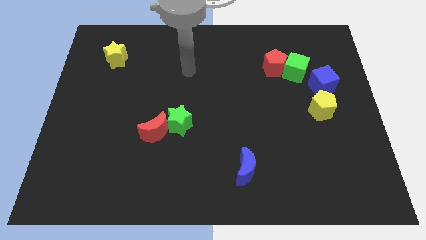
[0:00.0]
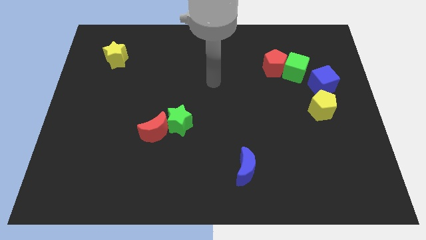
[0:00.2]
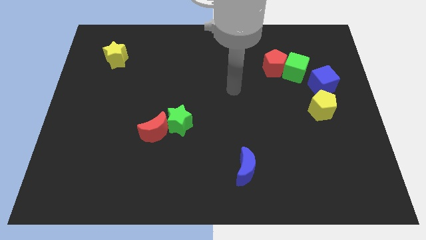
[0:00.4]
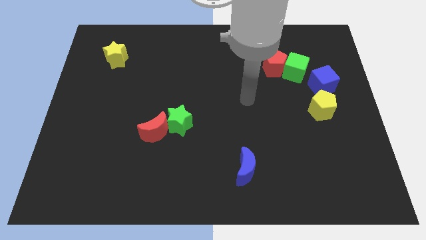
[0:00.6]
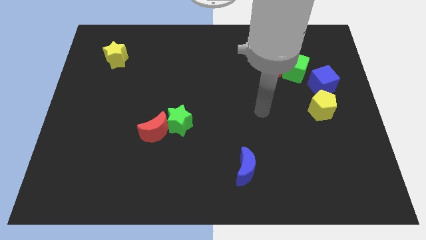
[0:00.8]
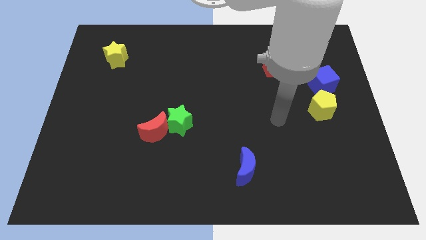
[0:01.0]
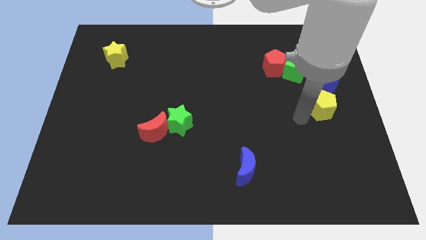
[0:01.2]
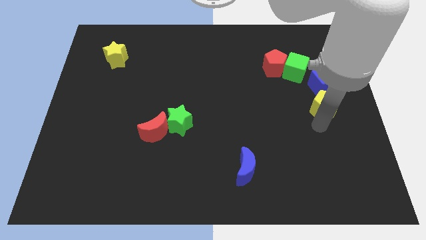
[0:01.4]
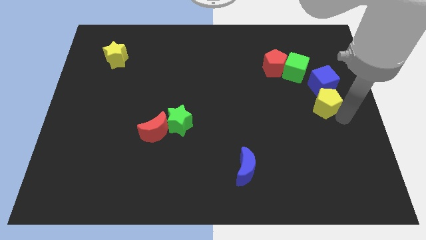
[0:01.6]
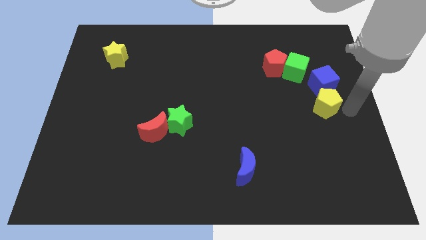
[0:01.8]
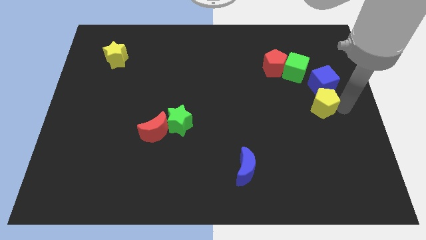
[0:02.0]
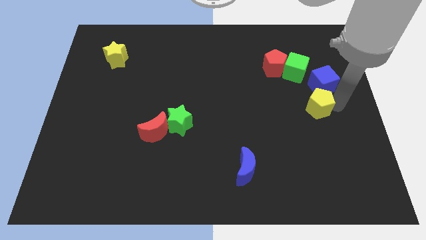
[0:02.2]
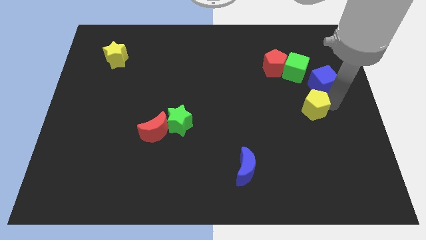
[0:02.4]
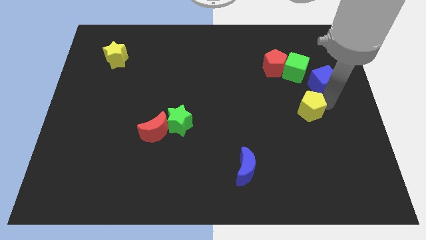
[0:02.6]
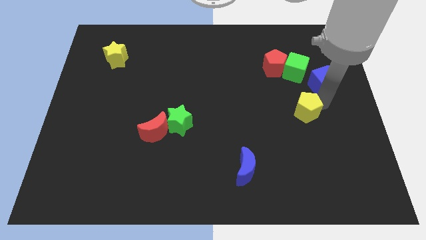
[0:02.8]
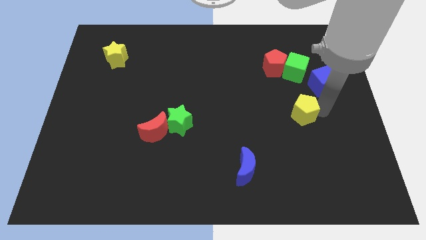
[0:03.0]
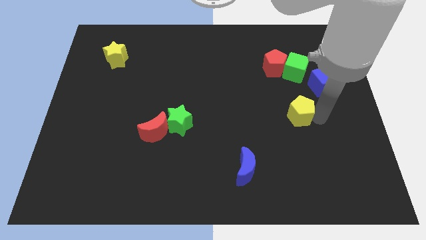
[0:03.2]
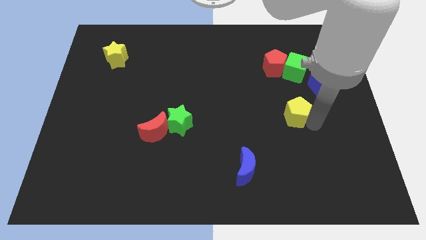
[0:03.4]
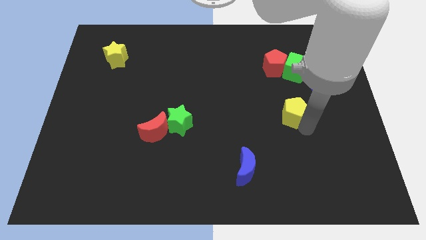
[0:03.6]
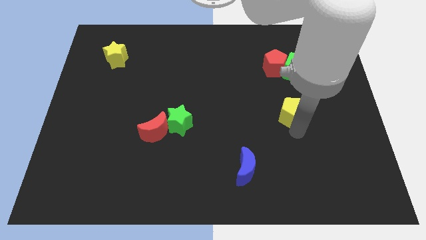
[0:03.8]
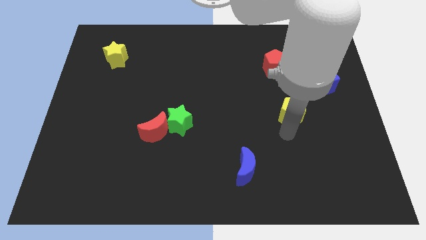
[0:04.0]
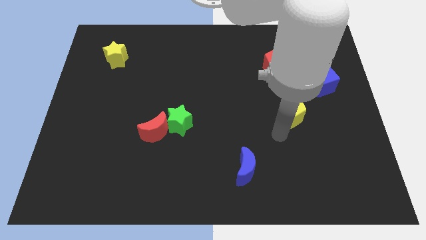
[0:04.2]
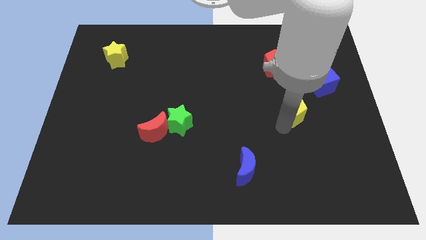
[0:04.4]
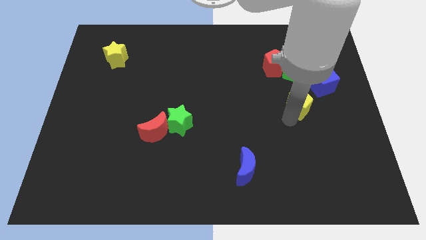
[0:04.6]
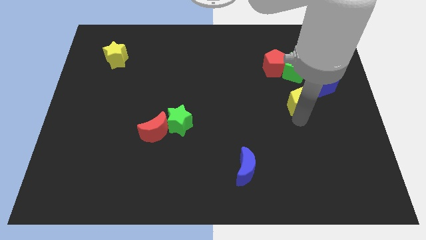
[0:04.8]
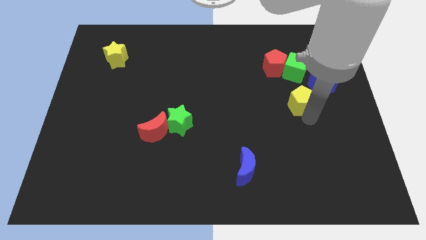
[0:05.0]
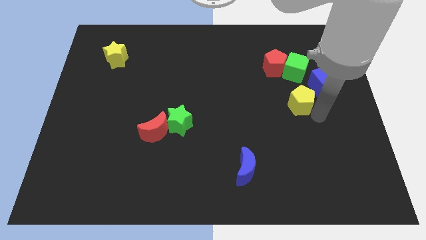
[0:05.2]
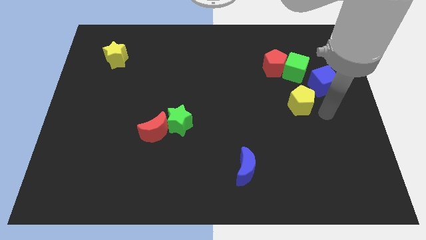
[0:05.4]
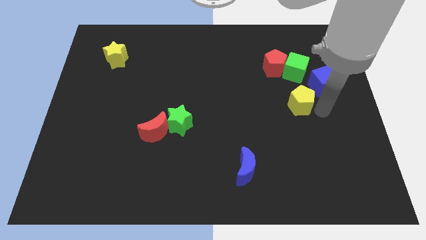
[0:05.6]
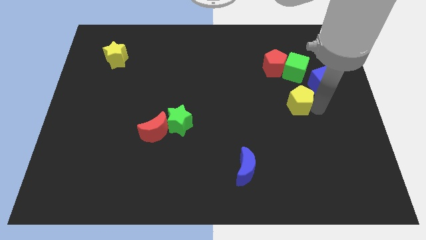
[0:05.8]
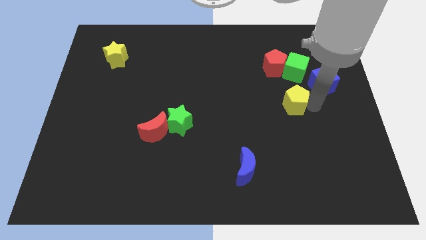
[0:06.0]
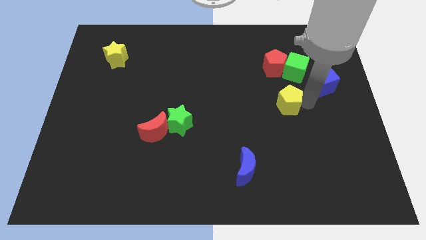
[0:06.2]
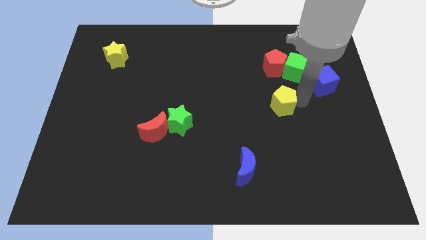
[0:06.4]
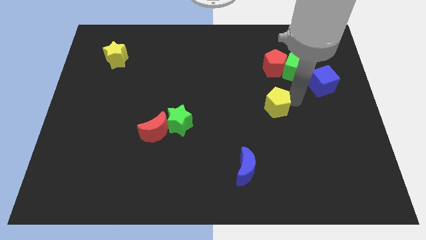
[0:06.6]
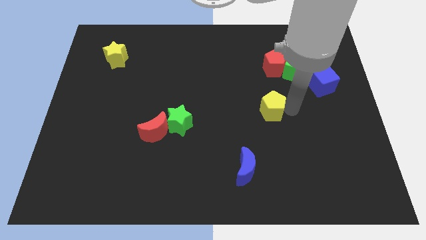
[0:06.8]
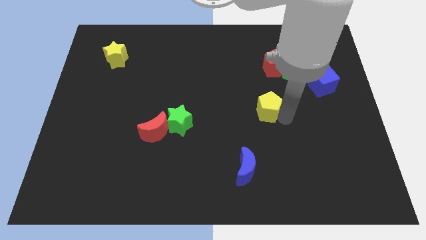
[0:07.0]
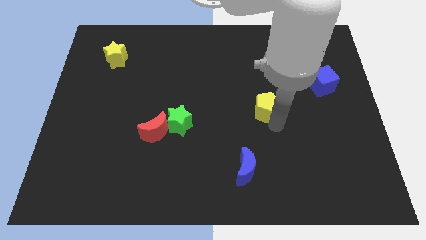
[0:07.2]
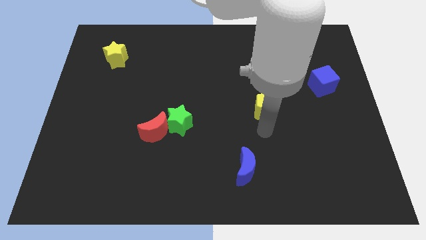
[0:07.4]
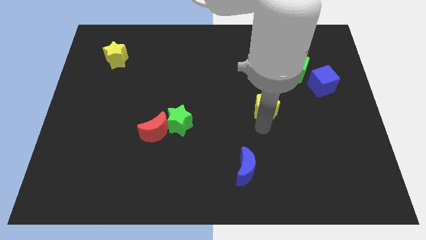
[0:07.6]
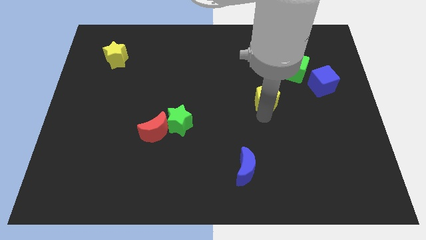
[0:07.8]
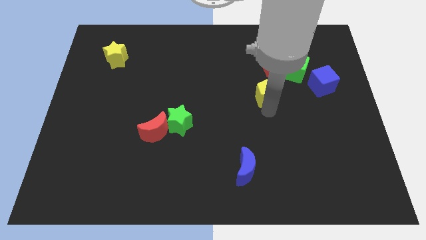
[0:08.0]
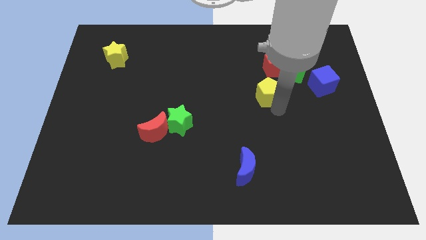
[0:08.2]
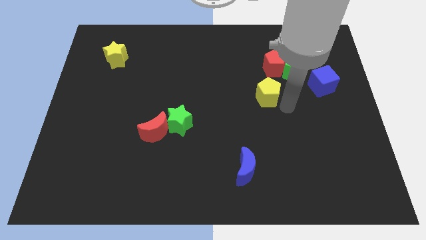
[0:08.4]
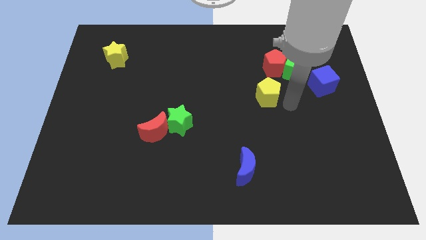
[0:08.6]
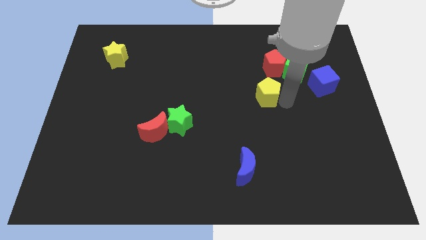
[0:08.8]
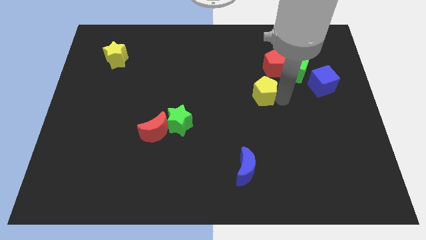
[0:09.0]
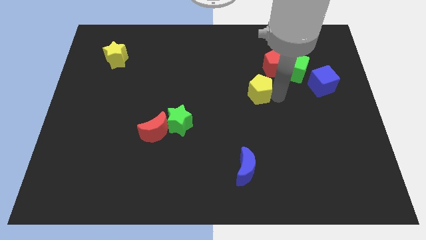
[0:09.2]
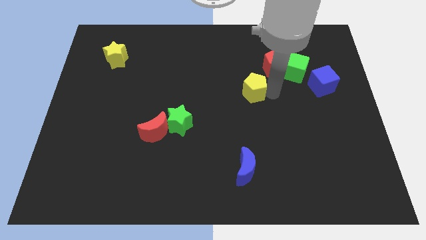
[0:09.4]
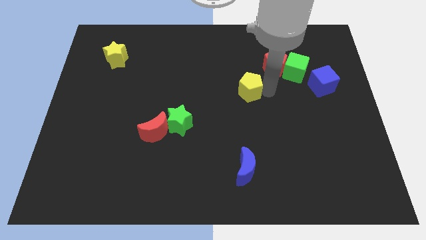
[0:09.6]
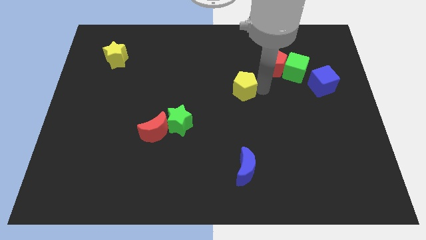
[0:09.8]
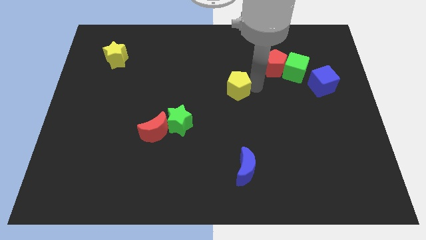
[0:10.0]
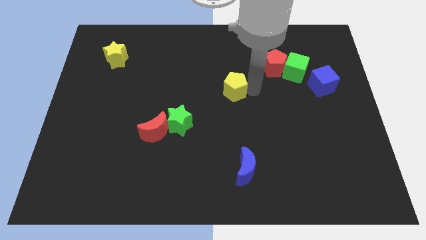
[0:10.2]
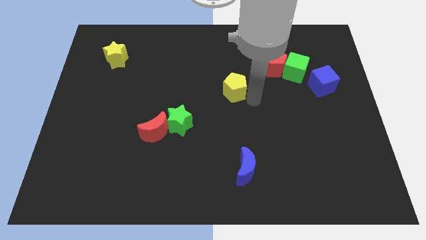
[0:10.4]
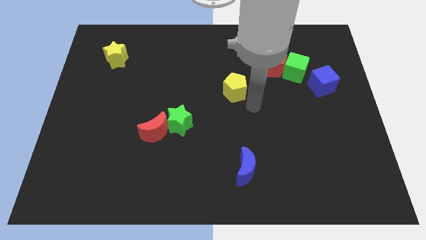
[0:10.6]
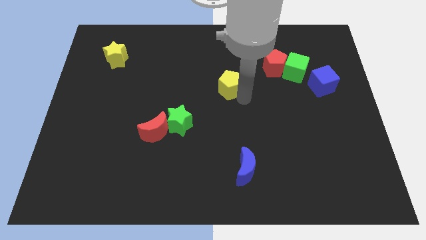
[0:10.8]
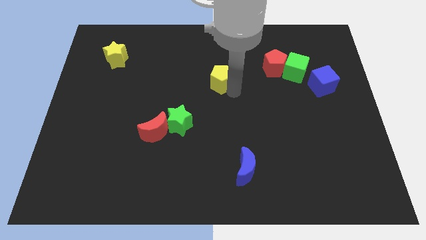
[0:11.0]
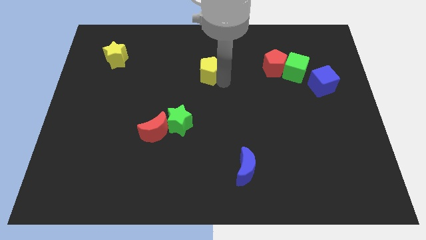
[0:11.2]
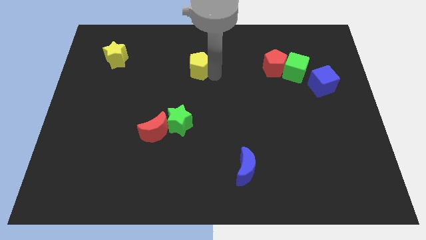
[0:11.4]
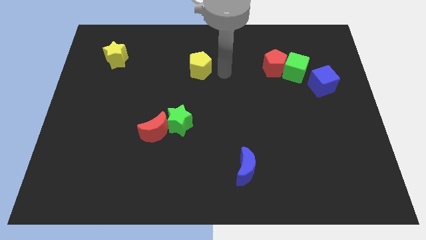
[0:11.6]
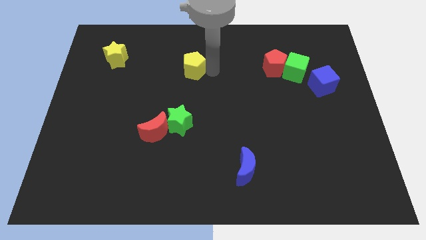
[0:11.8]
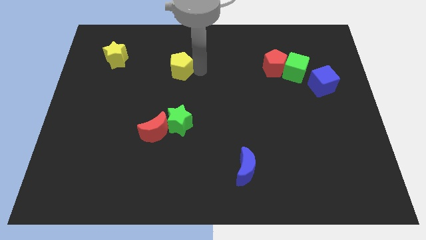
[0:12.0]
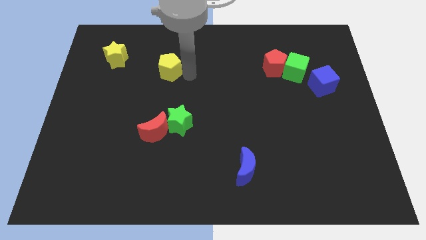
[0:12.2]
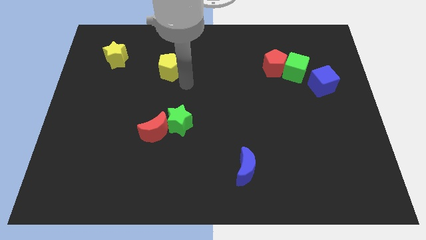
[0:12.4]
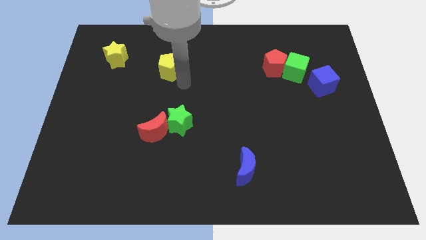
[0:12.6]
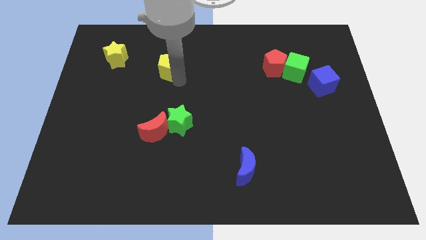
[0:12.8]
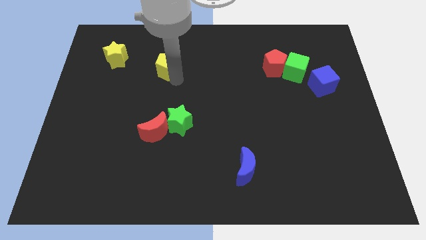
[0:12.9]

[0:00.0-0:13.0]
push the yellow pentagon to the right of the yellow star

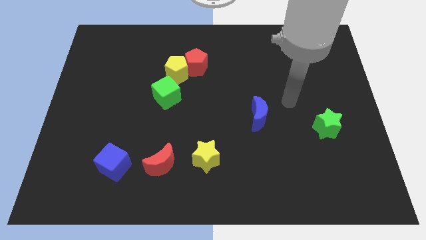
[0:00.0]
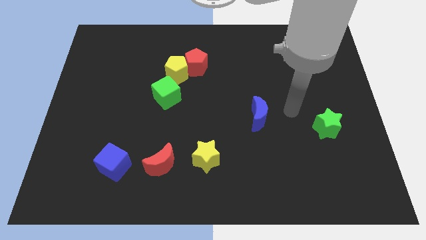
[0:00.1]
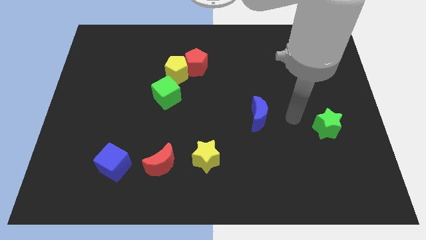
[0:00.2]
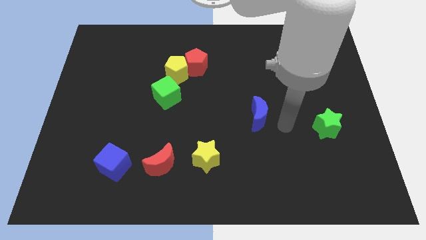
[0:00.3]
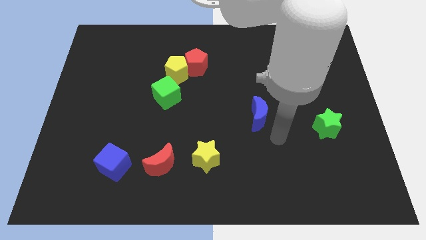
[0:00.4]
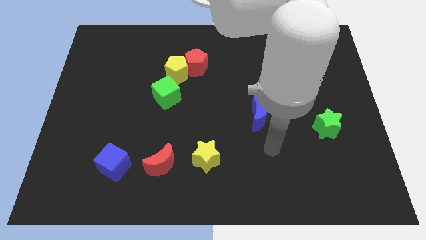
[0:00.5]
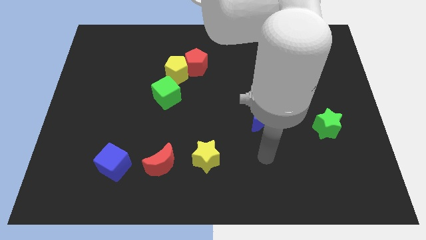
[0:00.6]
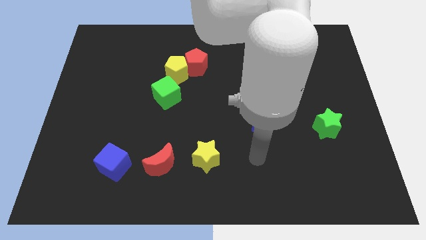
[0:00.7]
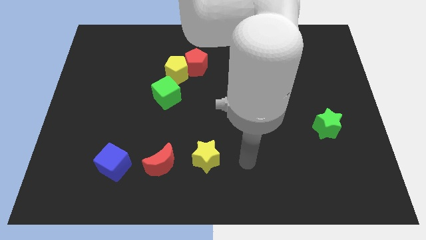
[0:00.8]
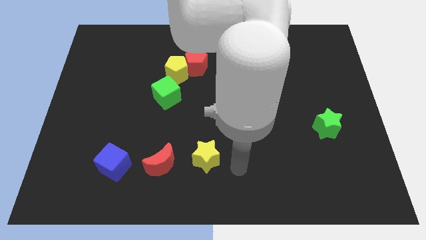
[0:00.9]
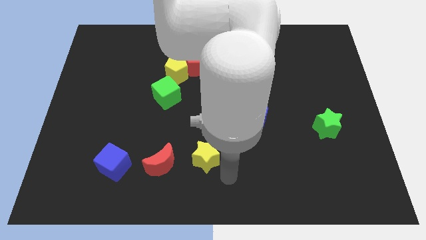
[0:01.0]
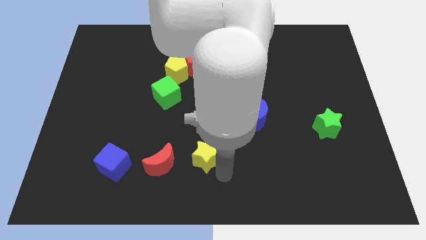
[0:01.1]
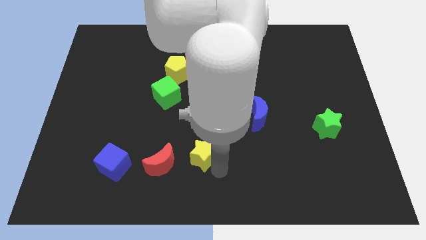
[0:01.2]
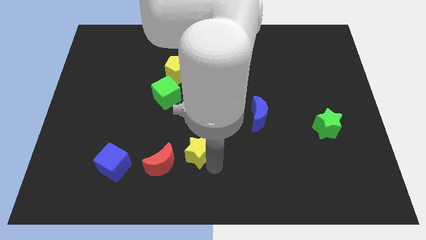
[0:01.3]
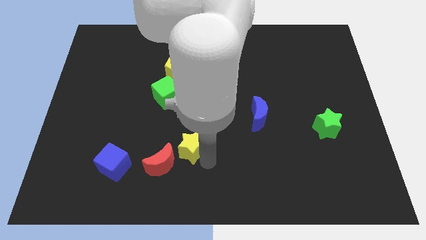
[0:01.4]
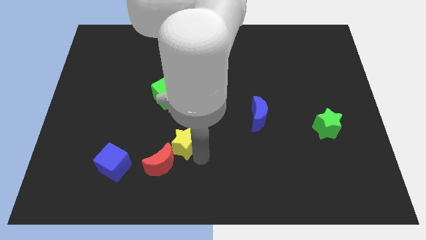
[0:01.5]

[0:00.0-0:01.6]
push the yellow star to the top of the red moon
